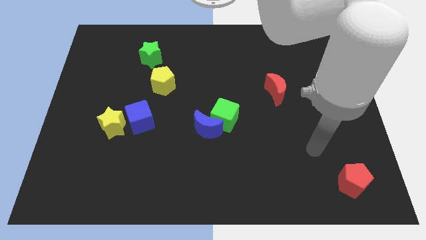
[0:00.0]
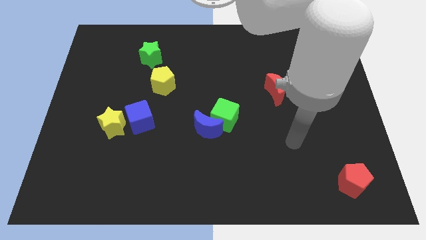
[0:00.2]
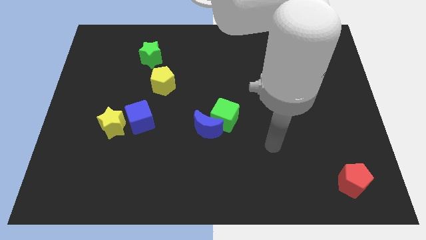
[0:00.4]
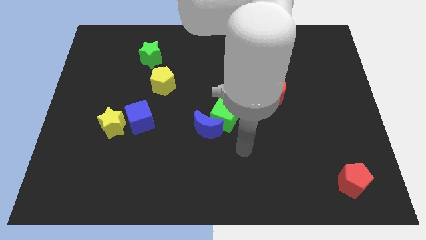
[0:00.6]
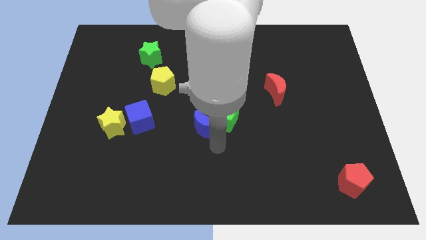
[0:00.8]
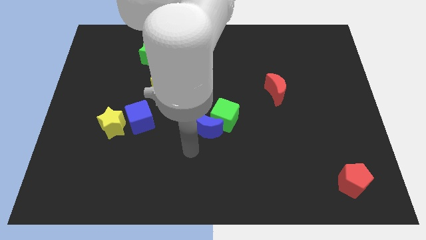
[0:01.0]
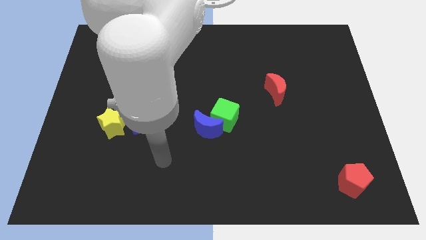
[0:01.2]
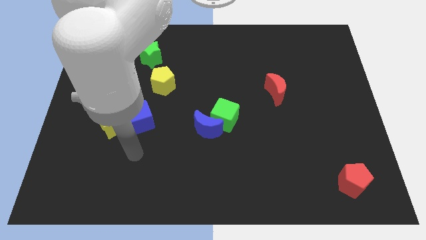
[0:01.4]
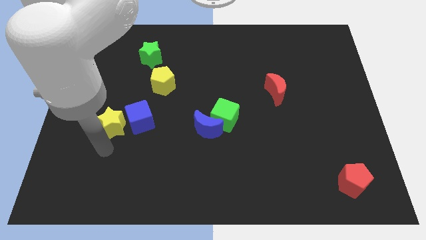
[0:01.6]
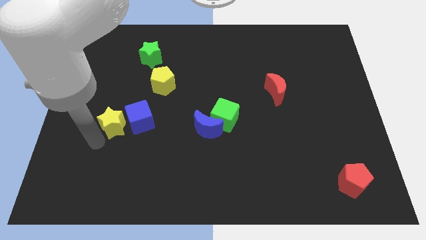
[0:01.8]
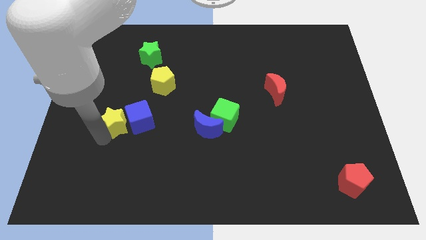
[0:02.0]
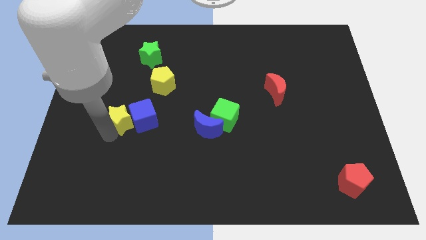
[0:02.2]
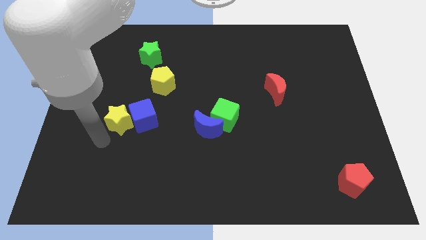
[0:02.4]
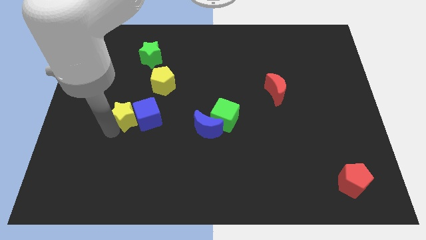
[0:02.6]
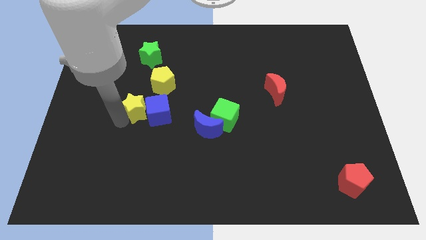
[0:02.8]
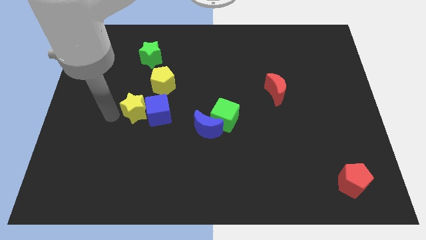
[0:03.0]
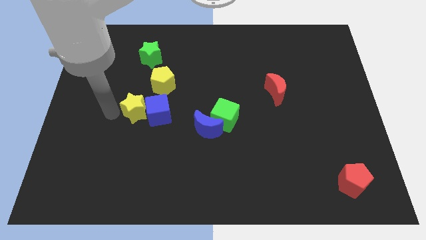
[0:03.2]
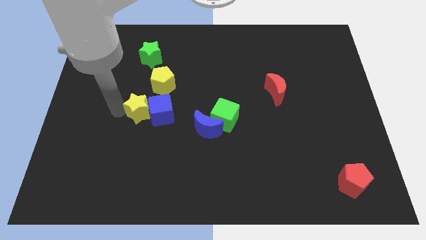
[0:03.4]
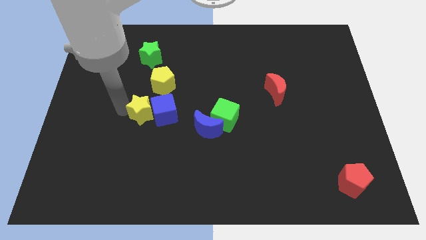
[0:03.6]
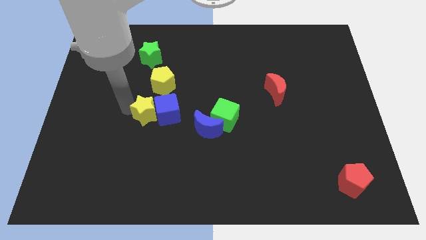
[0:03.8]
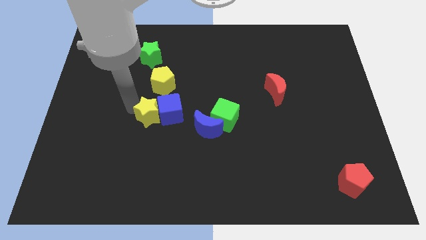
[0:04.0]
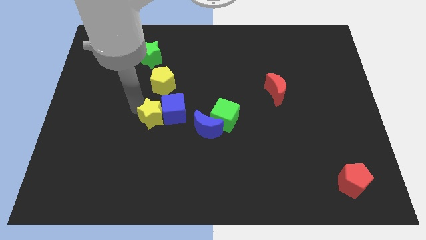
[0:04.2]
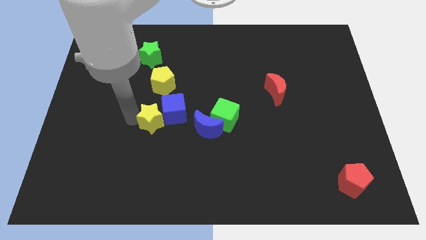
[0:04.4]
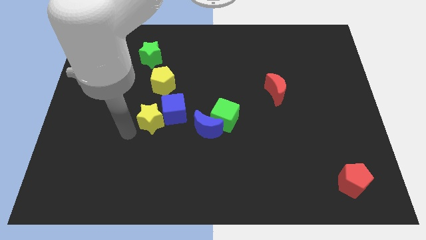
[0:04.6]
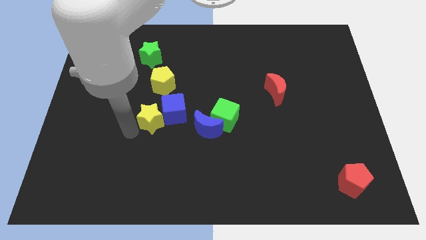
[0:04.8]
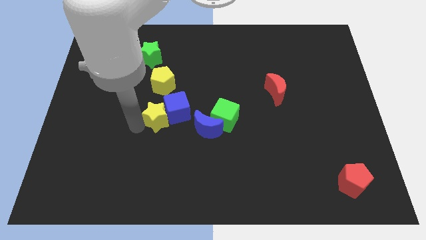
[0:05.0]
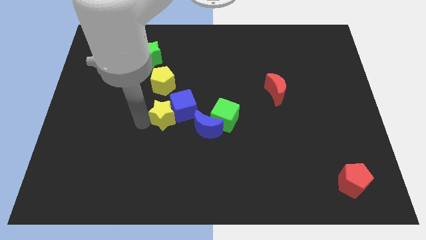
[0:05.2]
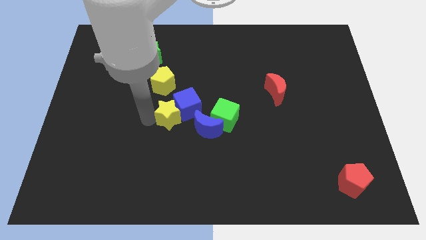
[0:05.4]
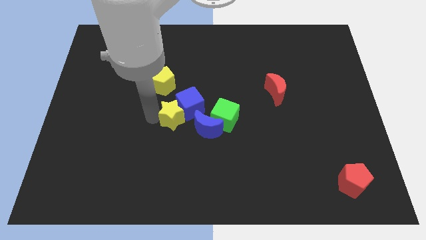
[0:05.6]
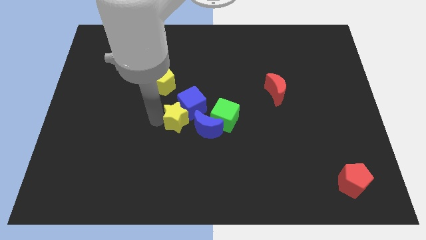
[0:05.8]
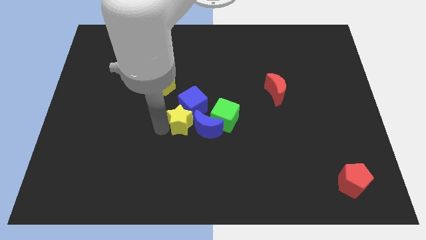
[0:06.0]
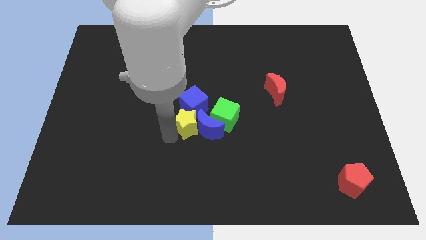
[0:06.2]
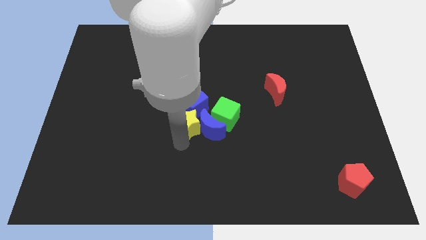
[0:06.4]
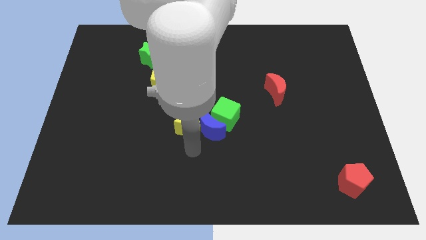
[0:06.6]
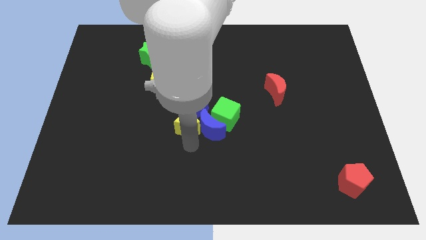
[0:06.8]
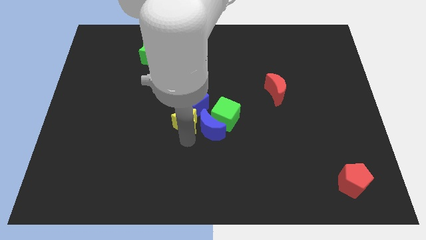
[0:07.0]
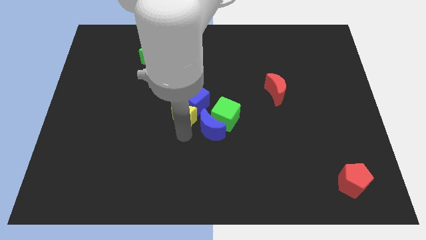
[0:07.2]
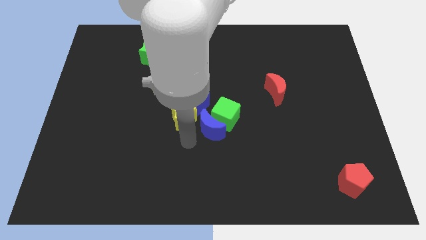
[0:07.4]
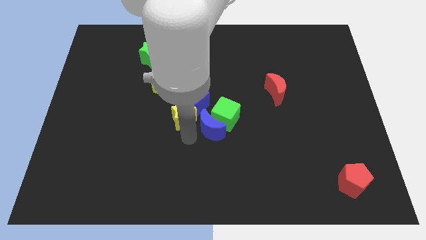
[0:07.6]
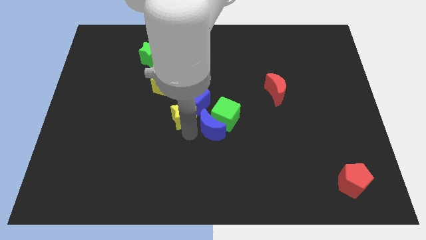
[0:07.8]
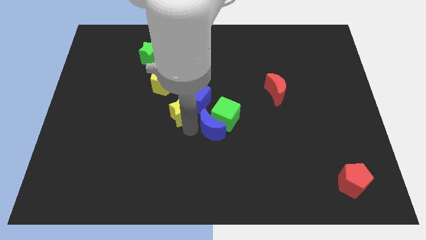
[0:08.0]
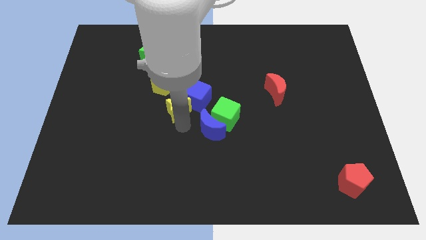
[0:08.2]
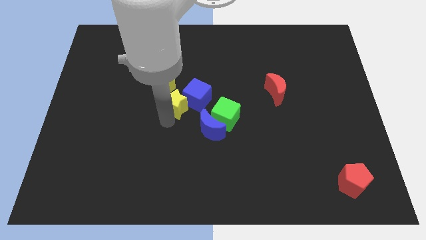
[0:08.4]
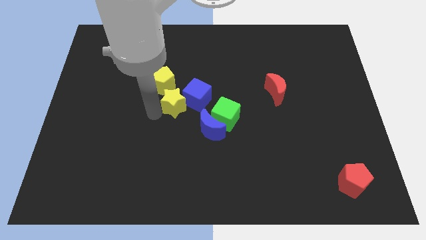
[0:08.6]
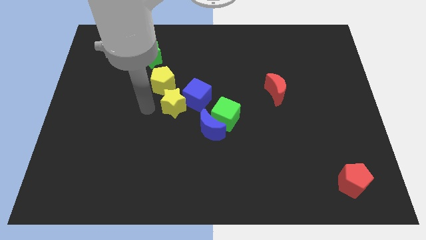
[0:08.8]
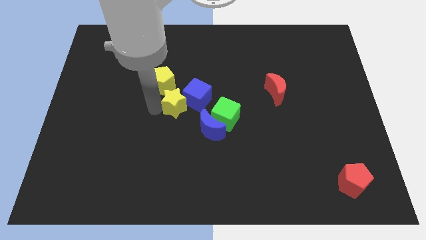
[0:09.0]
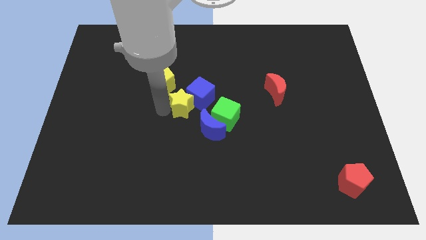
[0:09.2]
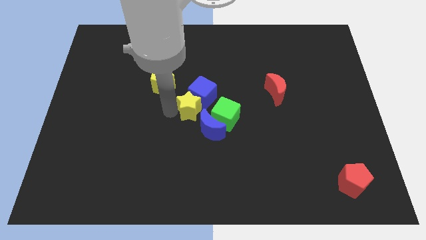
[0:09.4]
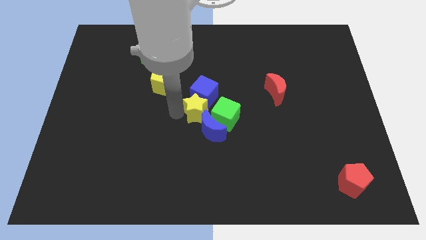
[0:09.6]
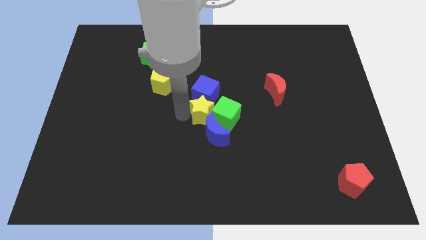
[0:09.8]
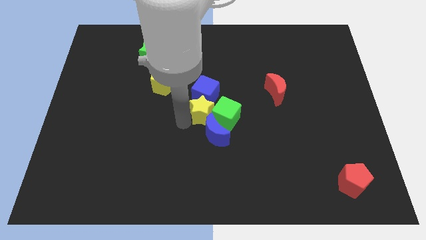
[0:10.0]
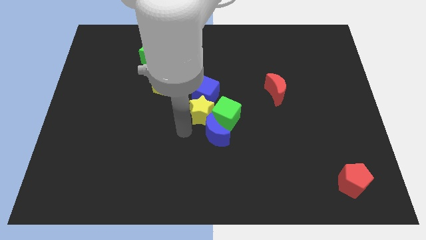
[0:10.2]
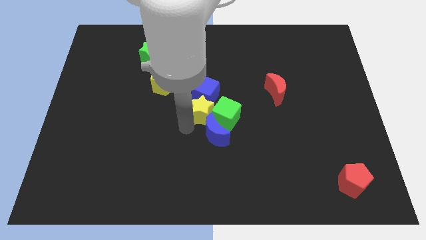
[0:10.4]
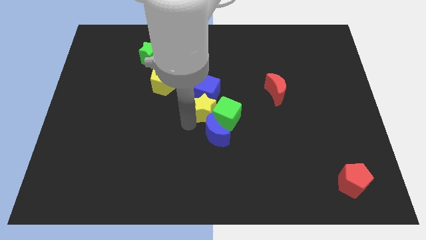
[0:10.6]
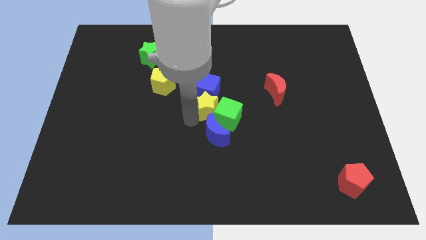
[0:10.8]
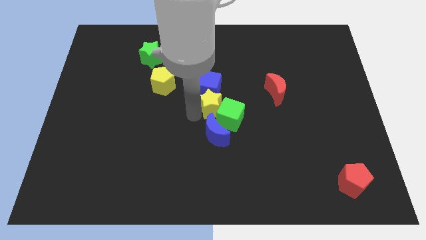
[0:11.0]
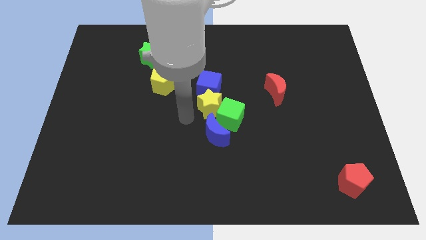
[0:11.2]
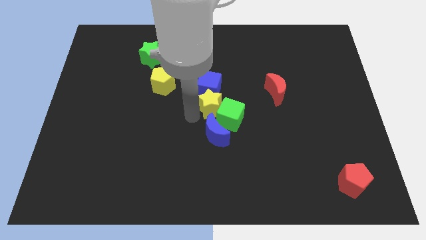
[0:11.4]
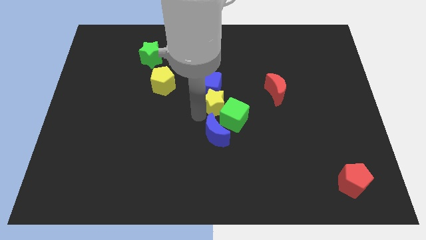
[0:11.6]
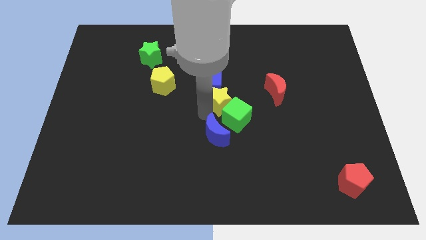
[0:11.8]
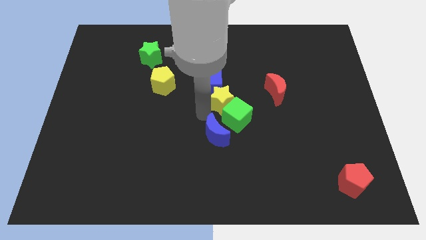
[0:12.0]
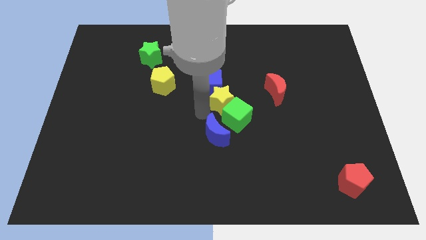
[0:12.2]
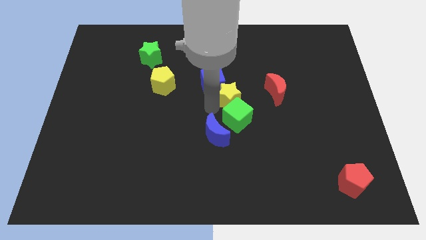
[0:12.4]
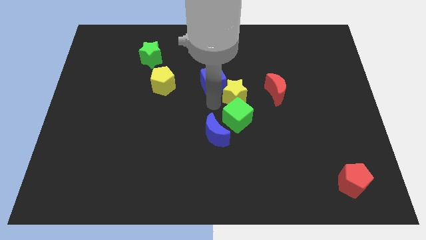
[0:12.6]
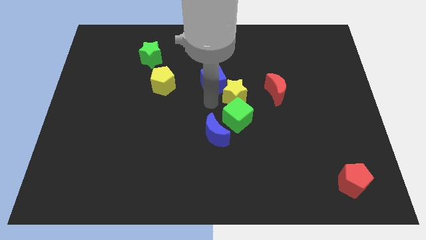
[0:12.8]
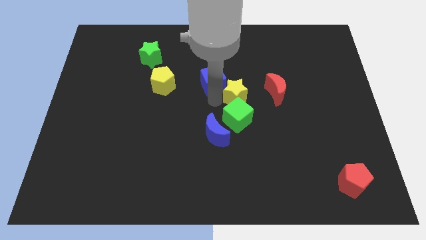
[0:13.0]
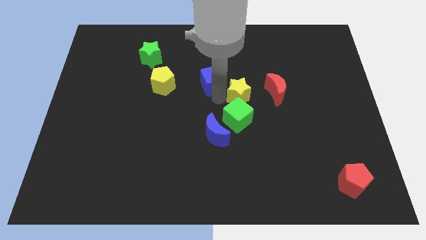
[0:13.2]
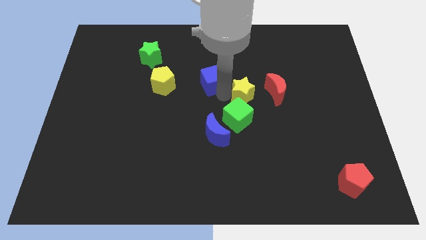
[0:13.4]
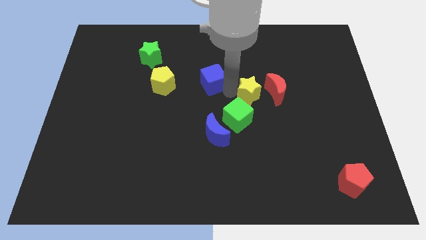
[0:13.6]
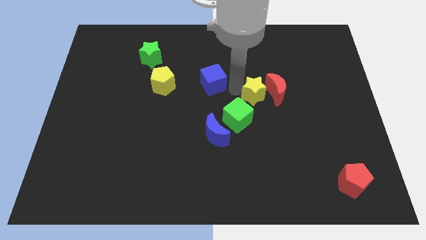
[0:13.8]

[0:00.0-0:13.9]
move the yellow star towards the red moon
